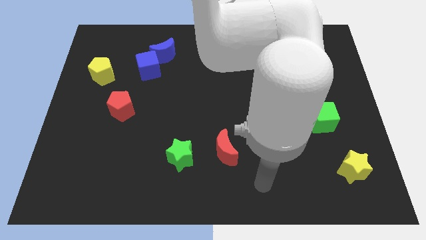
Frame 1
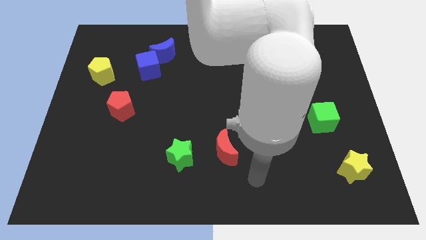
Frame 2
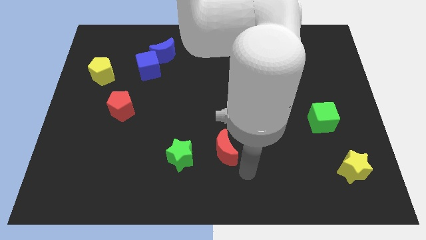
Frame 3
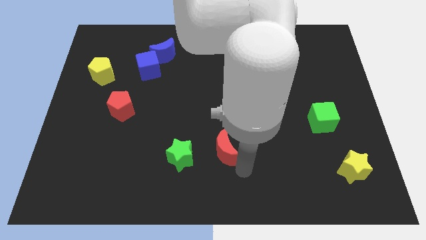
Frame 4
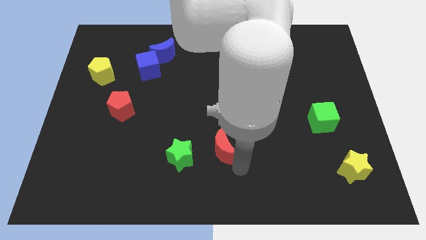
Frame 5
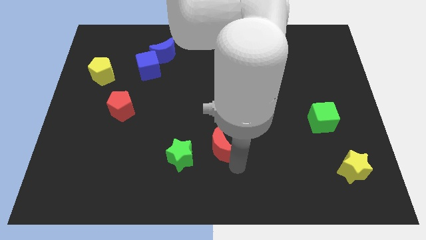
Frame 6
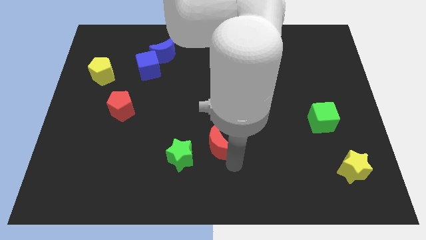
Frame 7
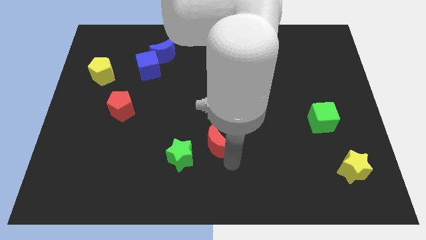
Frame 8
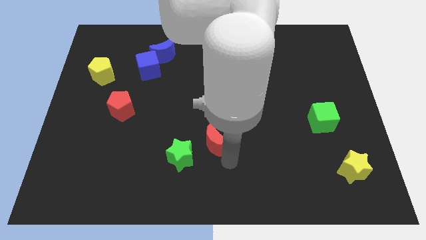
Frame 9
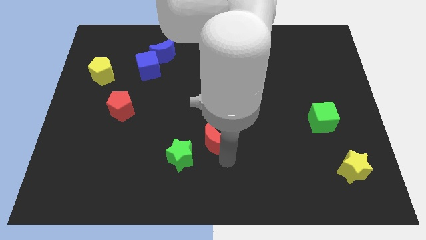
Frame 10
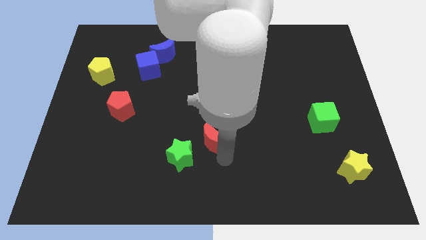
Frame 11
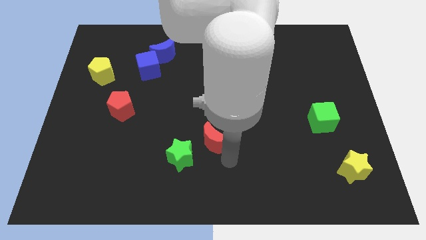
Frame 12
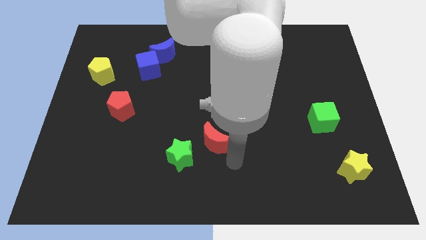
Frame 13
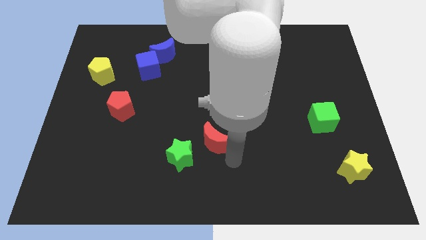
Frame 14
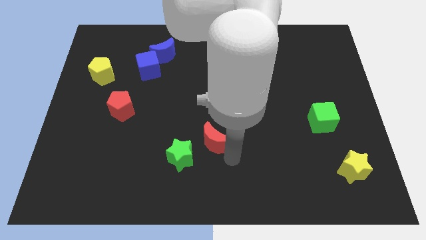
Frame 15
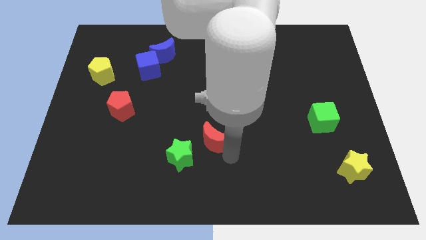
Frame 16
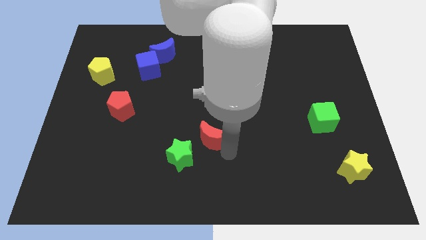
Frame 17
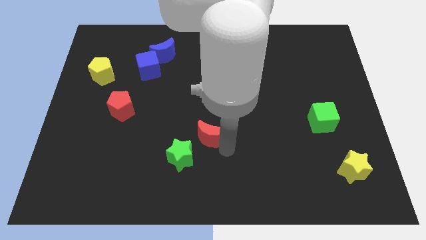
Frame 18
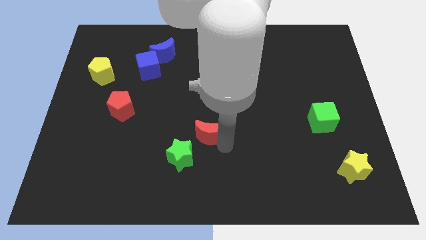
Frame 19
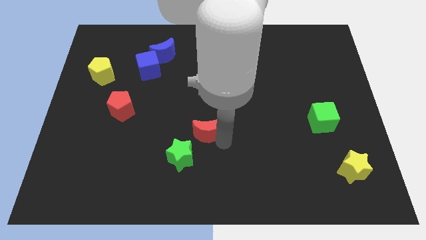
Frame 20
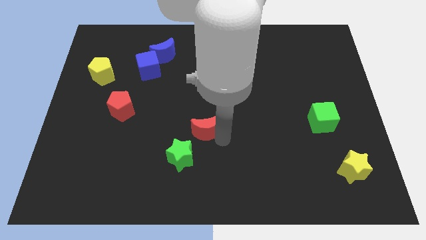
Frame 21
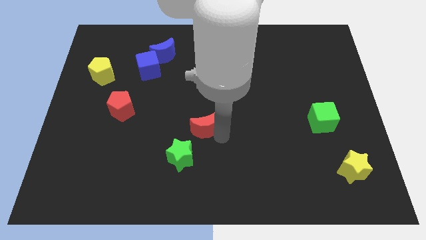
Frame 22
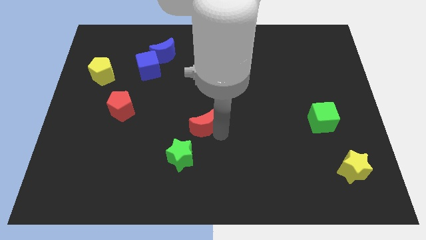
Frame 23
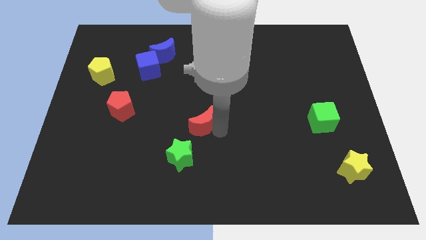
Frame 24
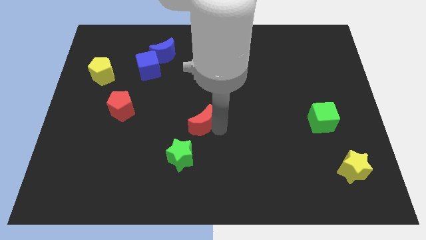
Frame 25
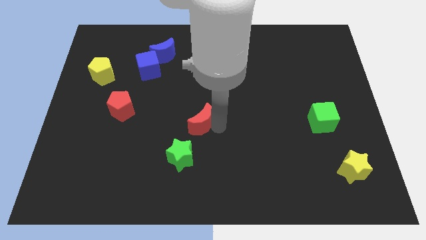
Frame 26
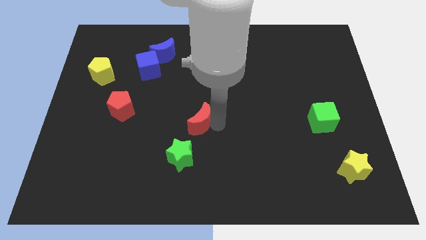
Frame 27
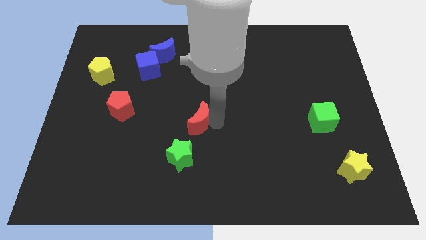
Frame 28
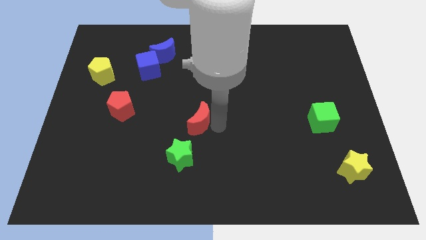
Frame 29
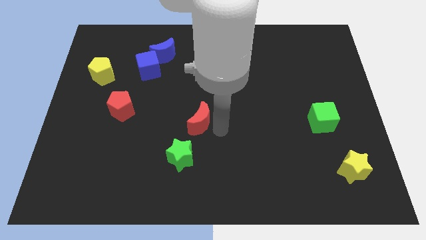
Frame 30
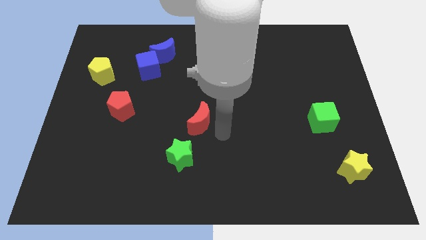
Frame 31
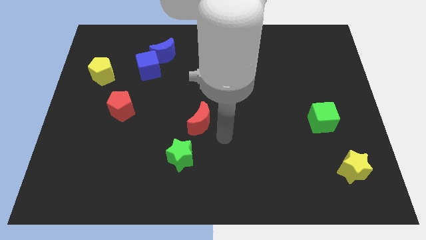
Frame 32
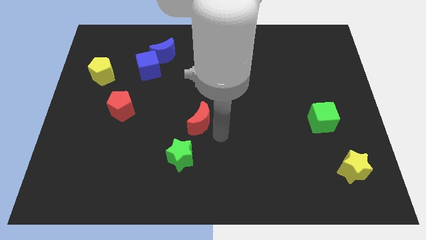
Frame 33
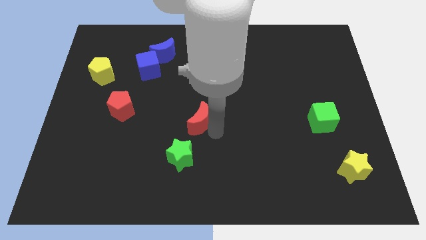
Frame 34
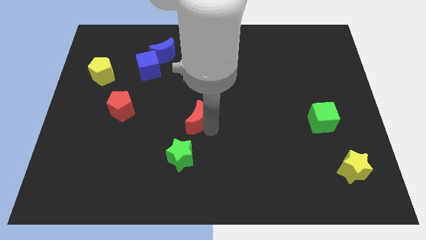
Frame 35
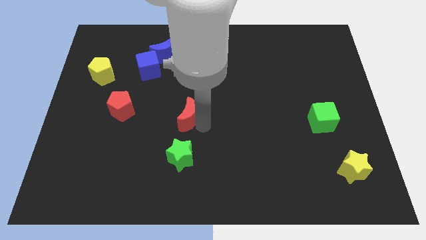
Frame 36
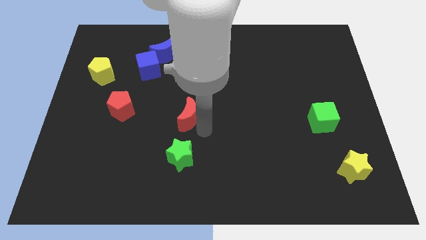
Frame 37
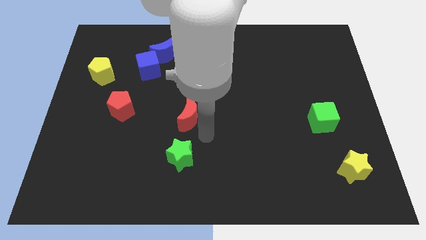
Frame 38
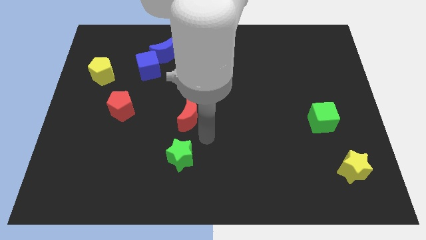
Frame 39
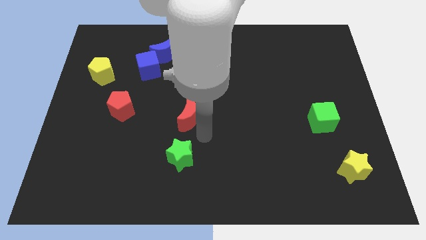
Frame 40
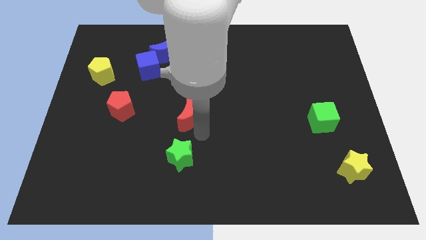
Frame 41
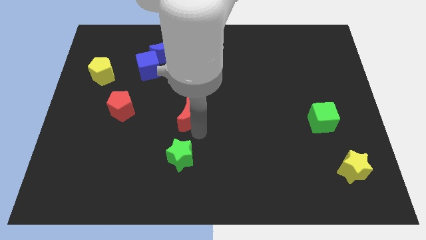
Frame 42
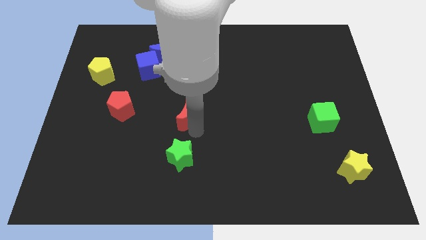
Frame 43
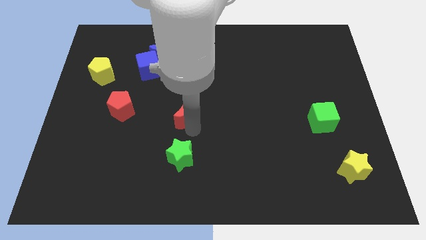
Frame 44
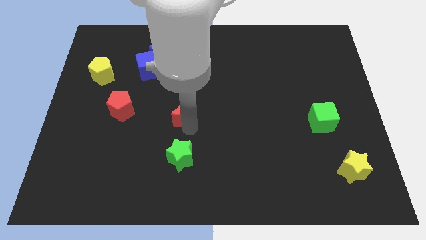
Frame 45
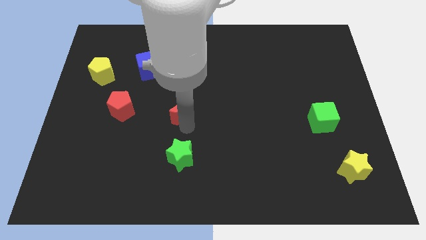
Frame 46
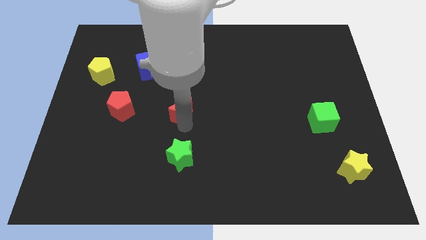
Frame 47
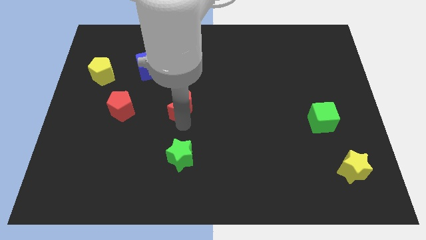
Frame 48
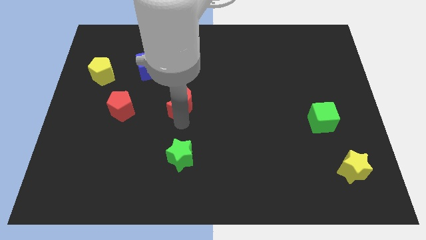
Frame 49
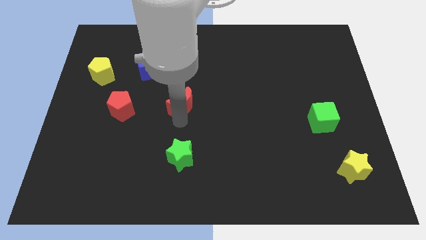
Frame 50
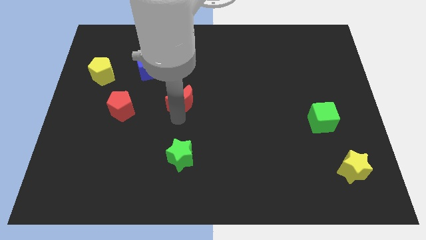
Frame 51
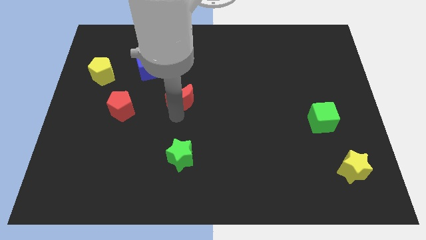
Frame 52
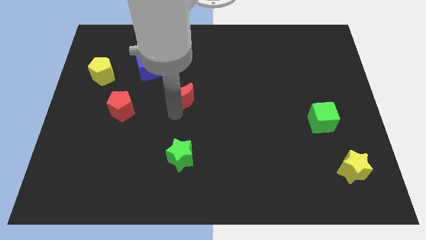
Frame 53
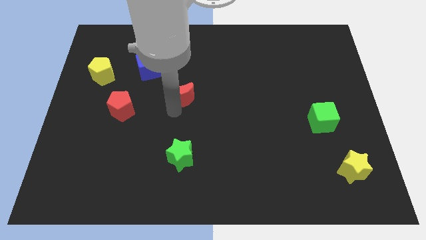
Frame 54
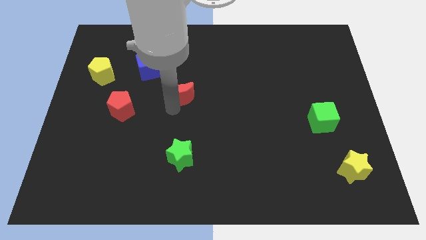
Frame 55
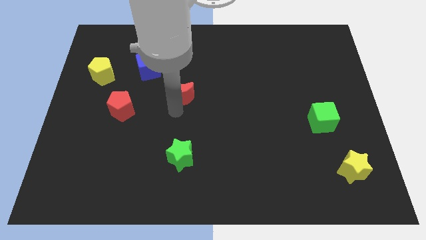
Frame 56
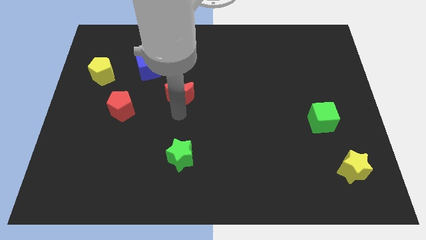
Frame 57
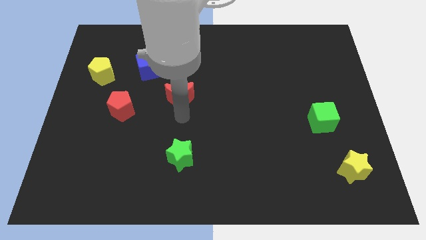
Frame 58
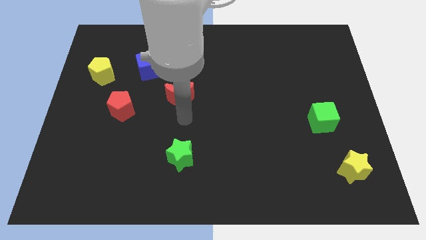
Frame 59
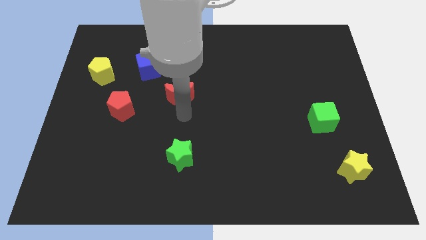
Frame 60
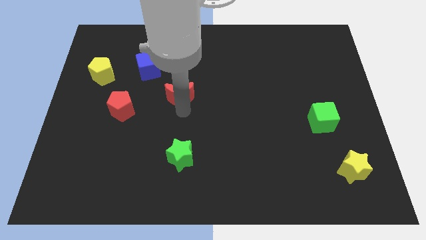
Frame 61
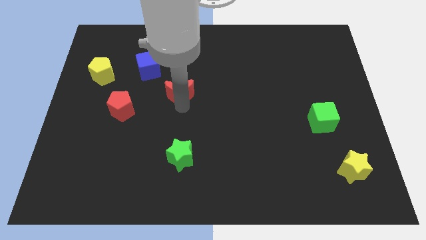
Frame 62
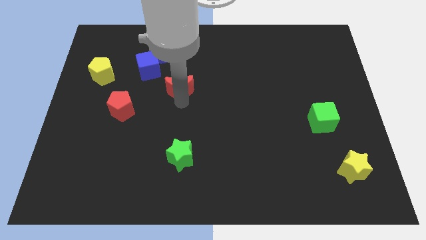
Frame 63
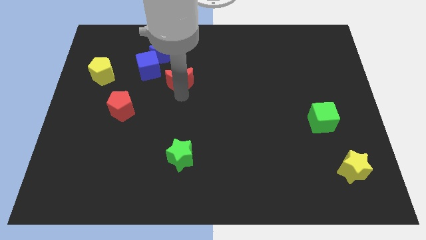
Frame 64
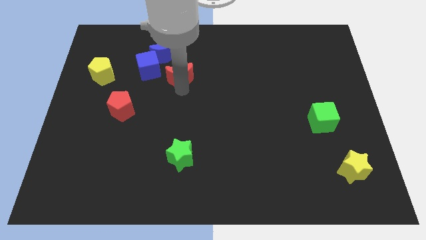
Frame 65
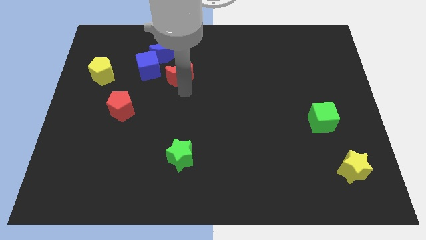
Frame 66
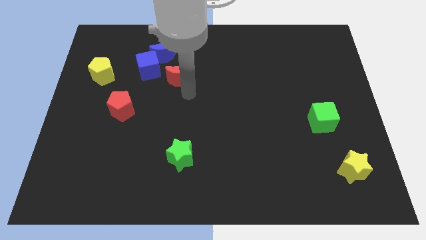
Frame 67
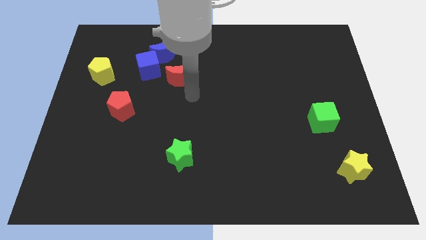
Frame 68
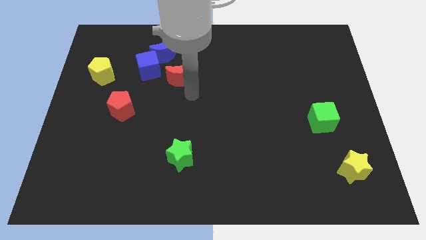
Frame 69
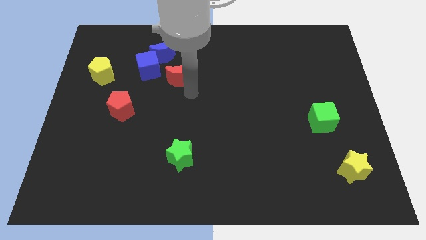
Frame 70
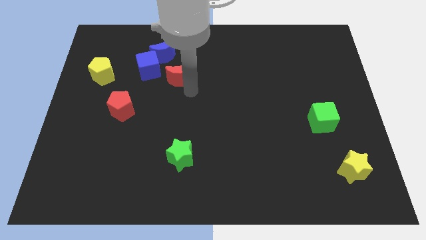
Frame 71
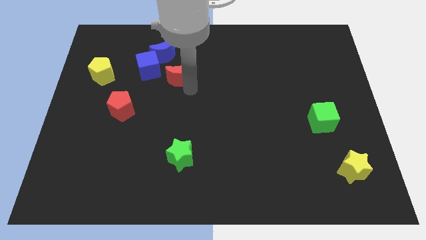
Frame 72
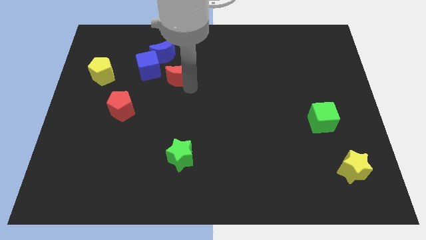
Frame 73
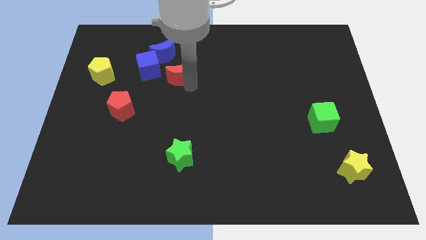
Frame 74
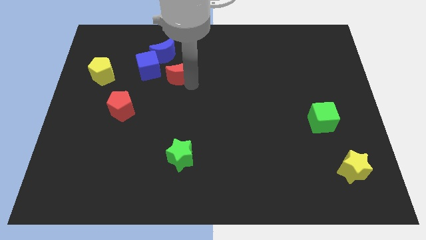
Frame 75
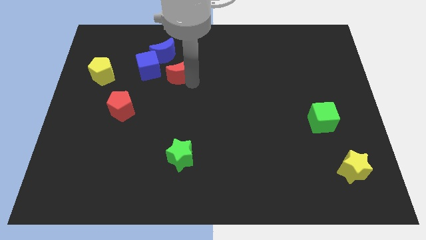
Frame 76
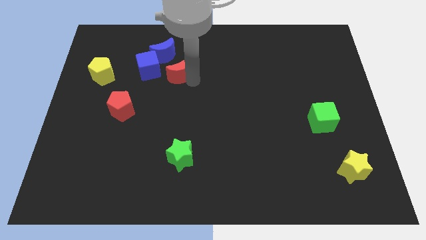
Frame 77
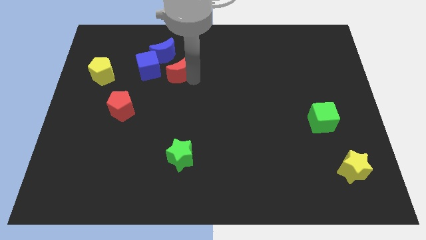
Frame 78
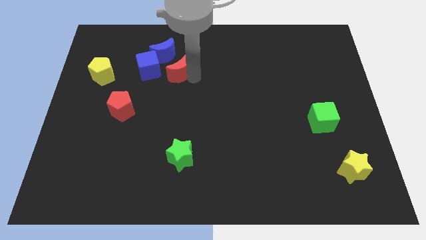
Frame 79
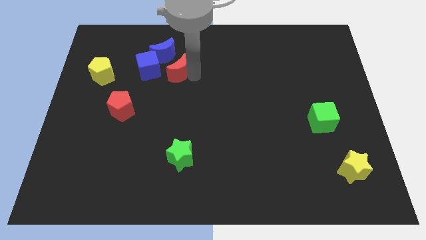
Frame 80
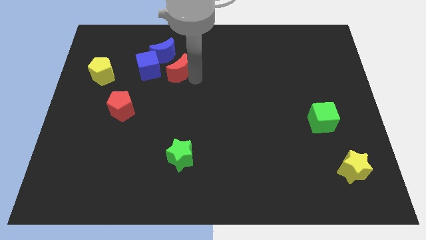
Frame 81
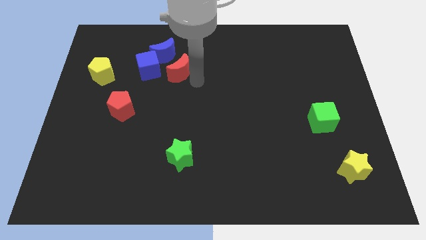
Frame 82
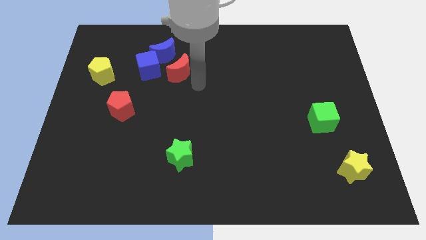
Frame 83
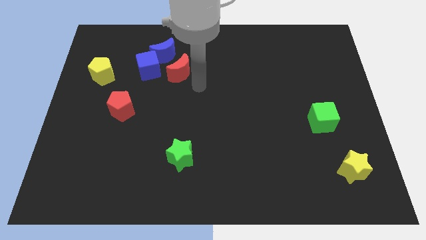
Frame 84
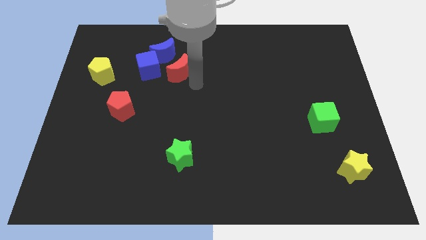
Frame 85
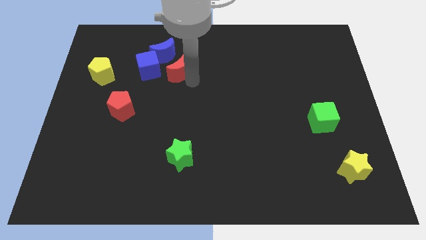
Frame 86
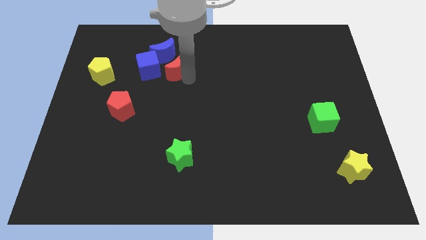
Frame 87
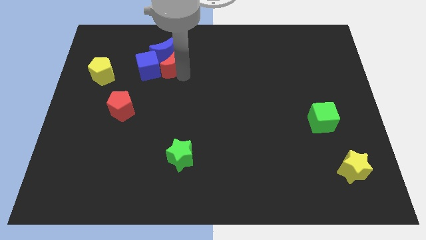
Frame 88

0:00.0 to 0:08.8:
put the red moon next to the blue moon
